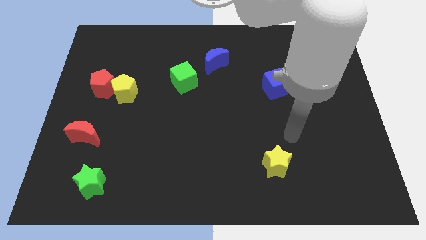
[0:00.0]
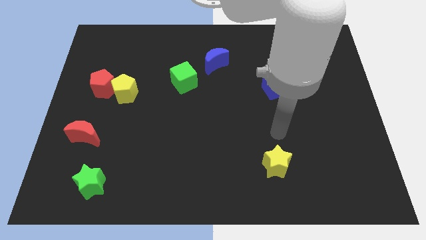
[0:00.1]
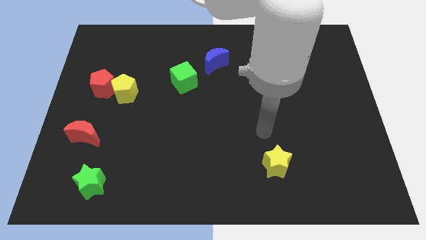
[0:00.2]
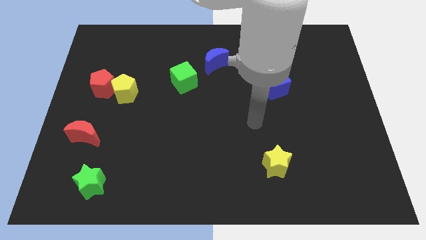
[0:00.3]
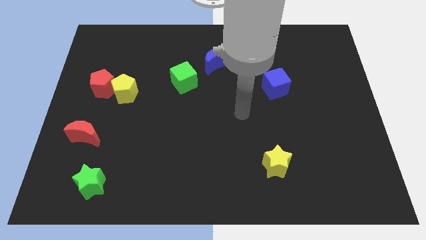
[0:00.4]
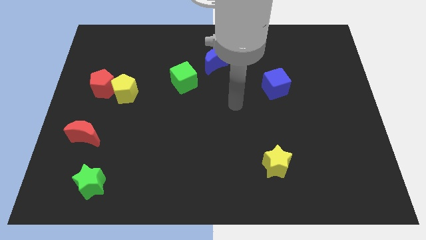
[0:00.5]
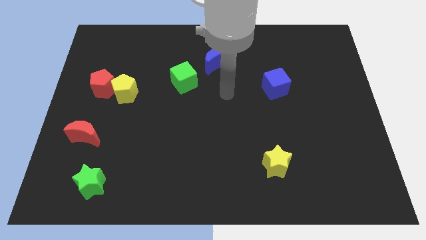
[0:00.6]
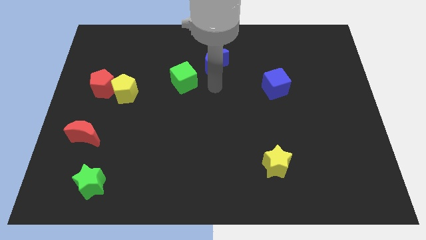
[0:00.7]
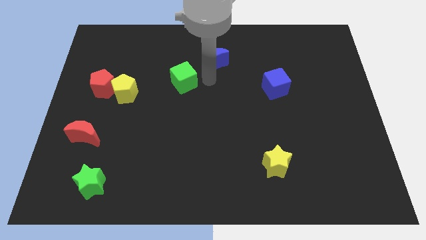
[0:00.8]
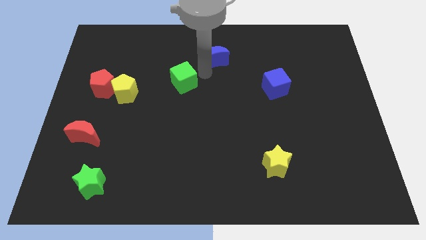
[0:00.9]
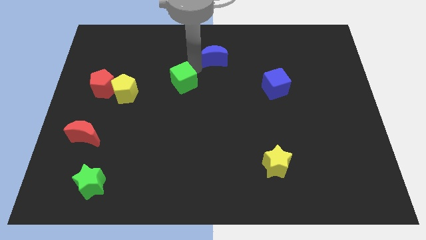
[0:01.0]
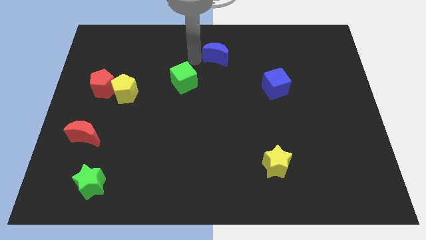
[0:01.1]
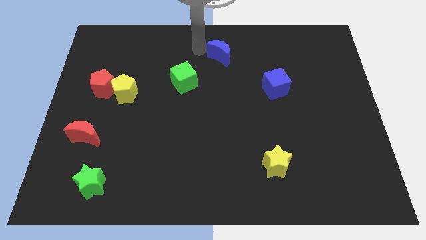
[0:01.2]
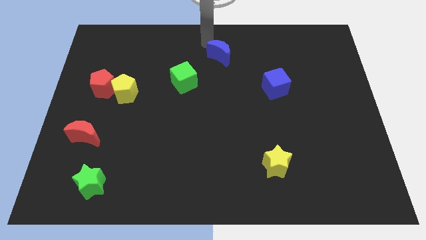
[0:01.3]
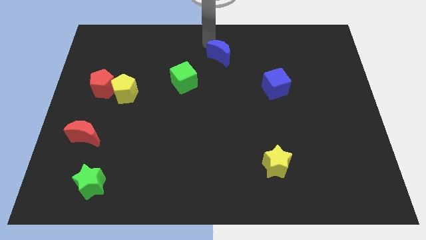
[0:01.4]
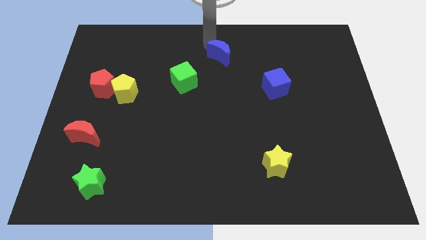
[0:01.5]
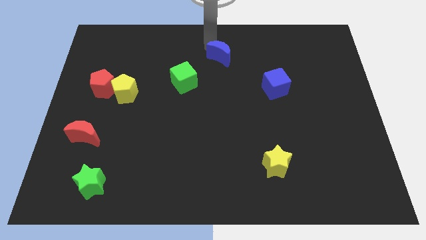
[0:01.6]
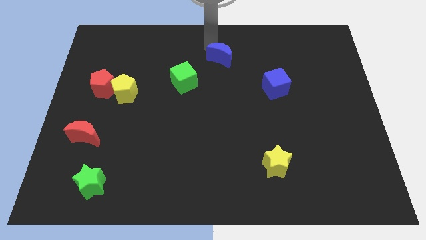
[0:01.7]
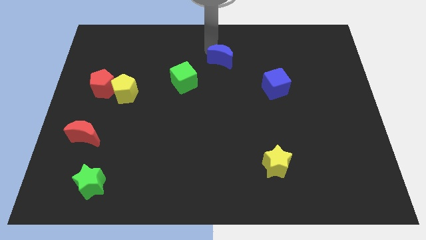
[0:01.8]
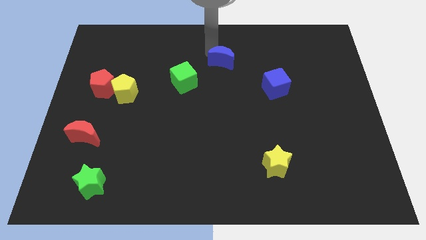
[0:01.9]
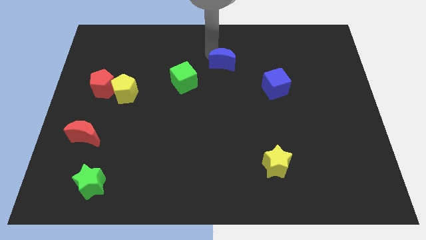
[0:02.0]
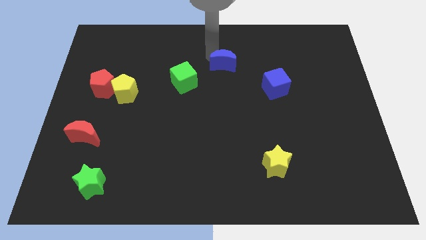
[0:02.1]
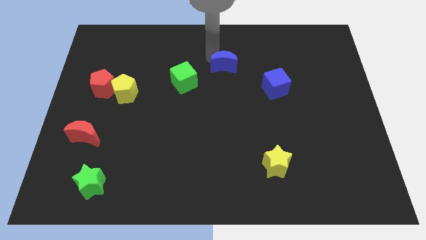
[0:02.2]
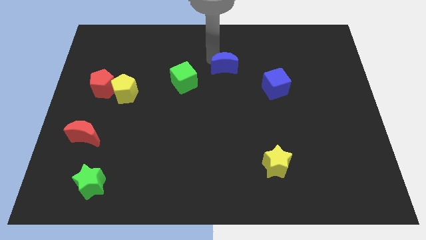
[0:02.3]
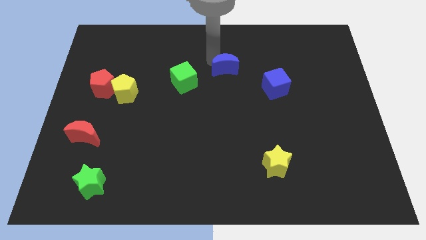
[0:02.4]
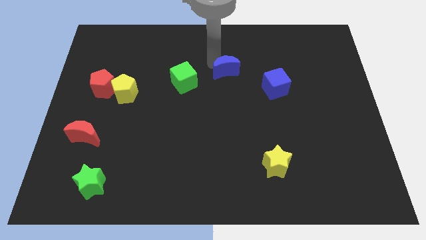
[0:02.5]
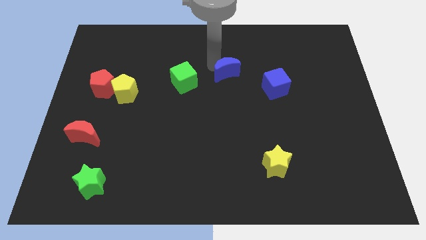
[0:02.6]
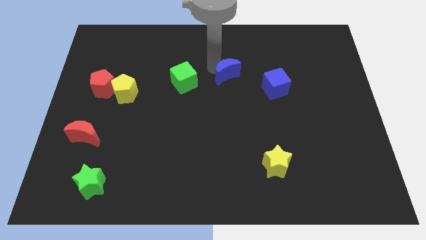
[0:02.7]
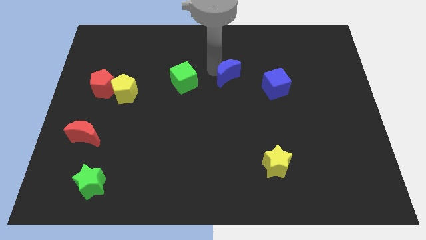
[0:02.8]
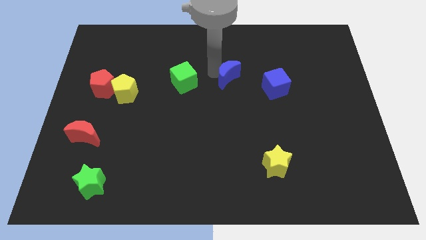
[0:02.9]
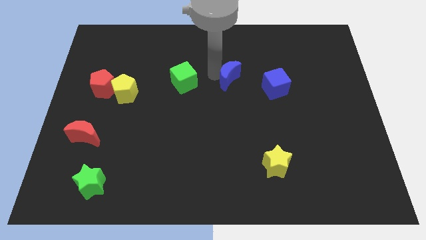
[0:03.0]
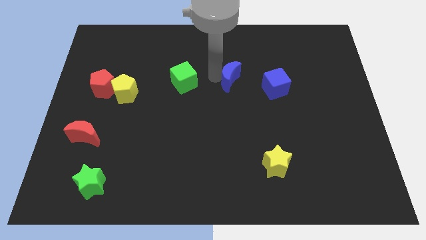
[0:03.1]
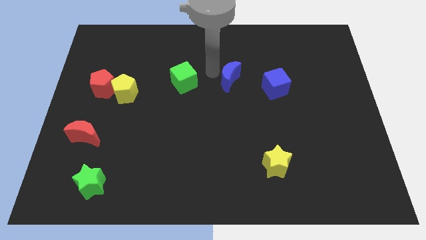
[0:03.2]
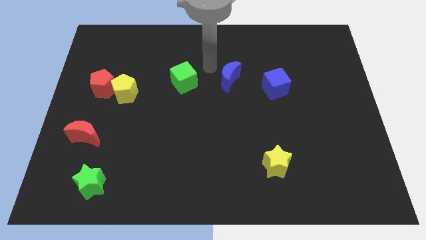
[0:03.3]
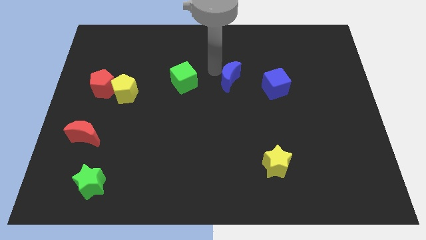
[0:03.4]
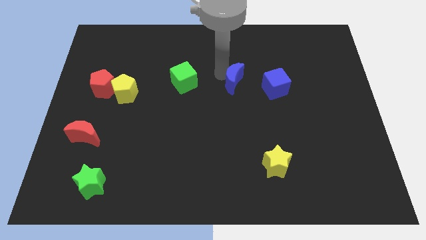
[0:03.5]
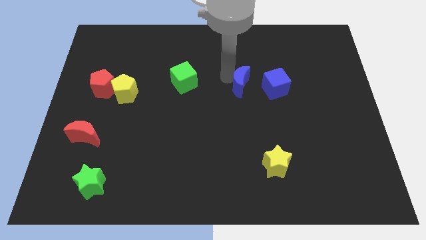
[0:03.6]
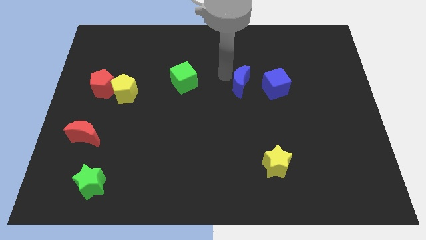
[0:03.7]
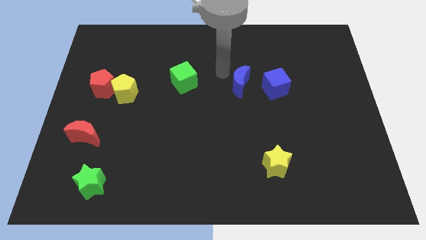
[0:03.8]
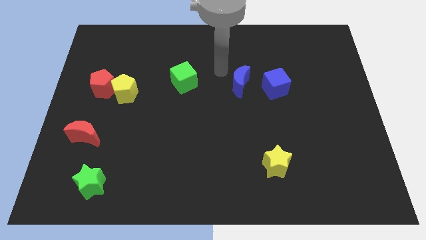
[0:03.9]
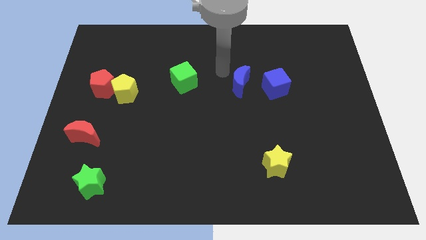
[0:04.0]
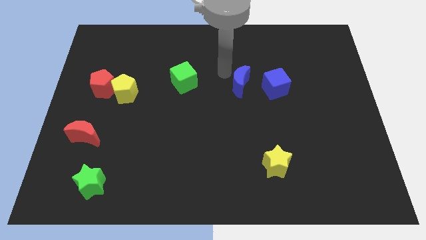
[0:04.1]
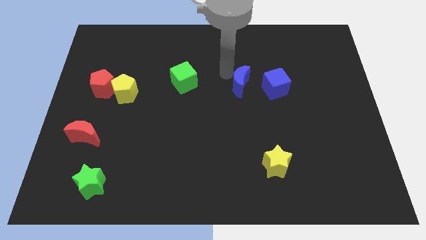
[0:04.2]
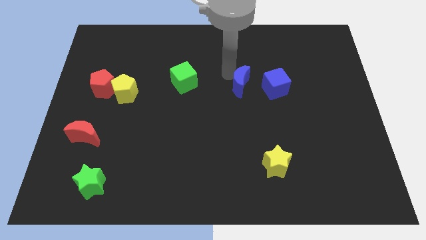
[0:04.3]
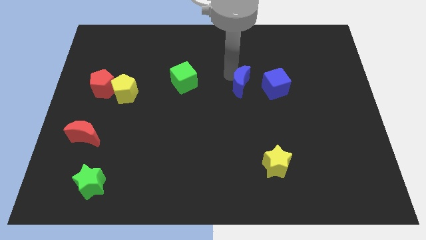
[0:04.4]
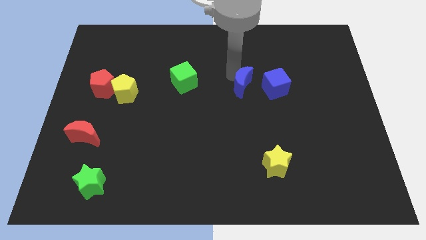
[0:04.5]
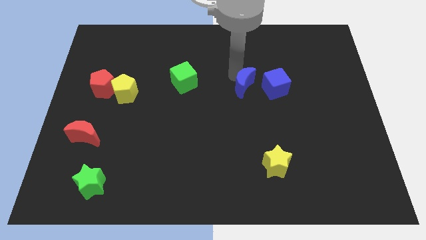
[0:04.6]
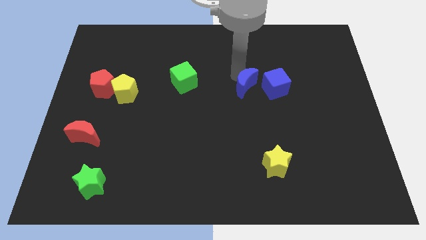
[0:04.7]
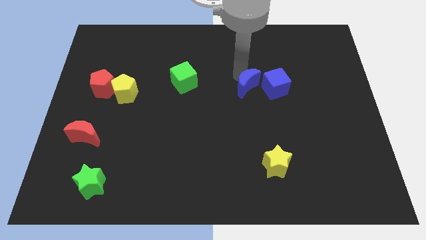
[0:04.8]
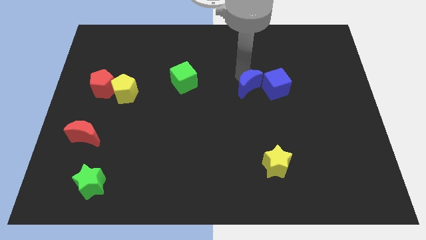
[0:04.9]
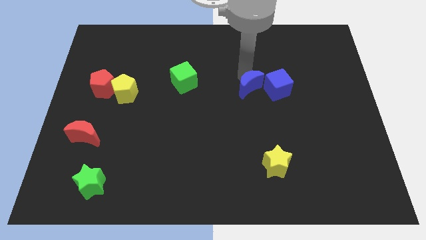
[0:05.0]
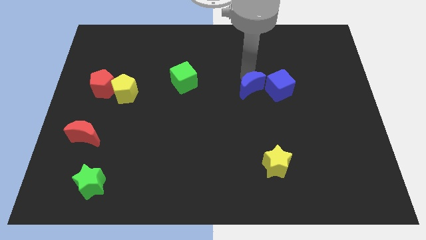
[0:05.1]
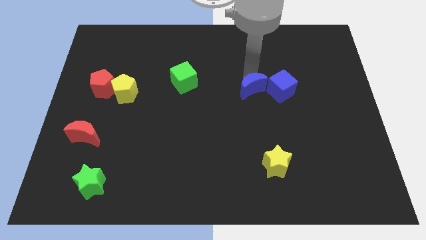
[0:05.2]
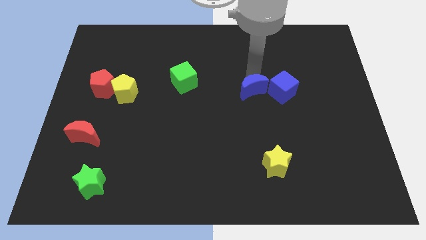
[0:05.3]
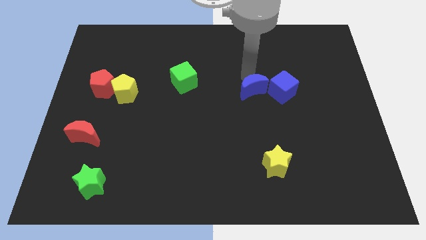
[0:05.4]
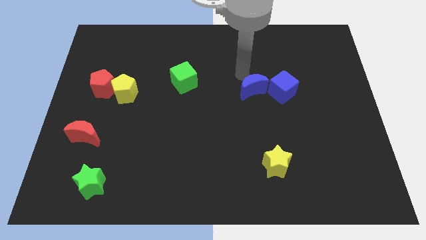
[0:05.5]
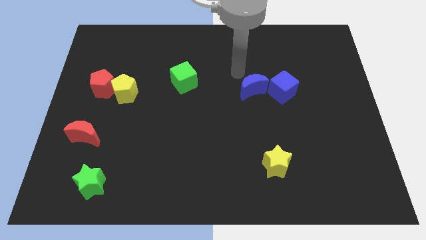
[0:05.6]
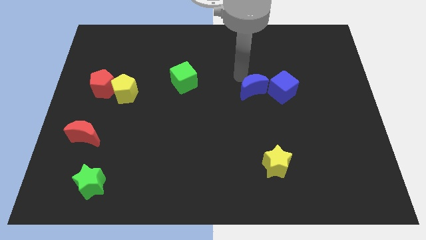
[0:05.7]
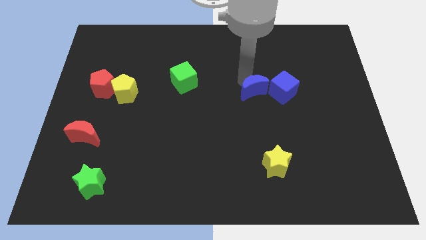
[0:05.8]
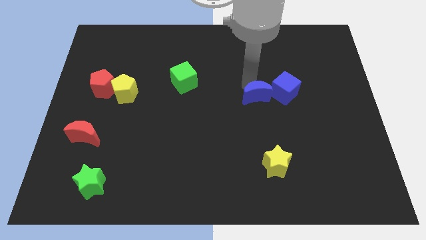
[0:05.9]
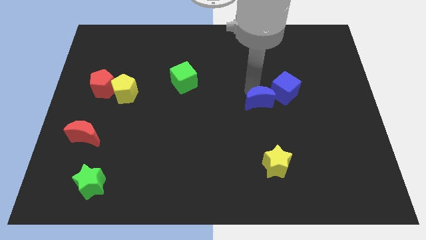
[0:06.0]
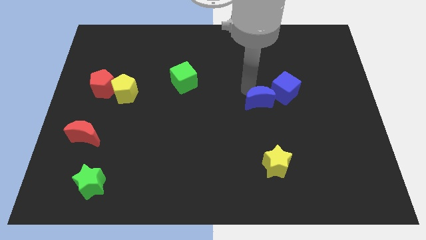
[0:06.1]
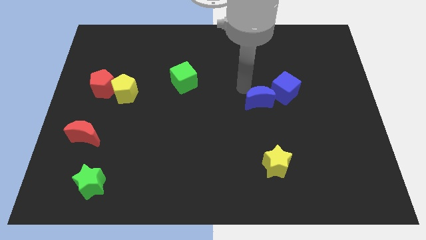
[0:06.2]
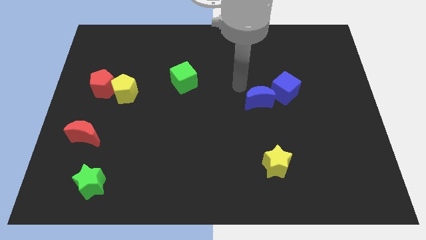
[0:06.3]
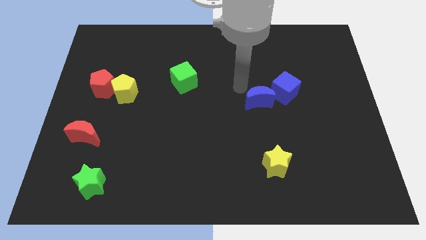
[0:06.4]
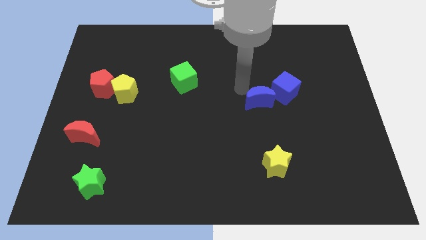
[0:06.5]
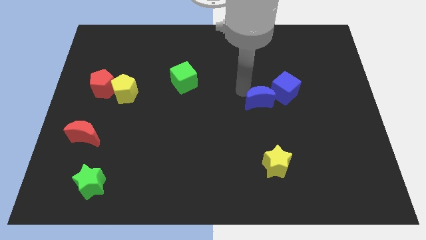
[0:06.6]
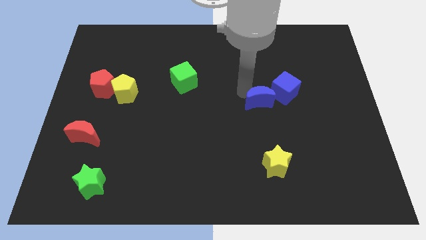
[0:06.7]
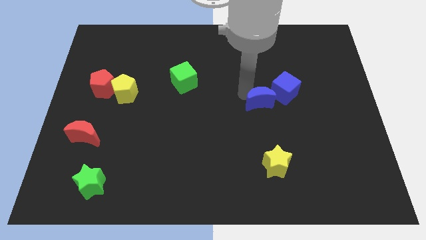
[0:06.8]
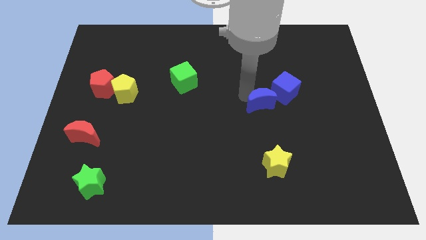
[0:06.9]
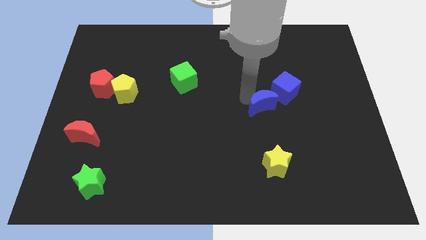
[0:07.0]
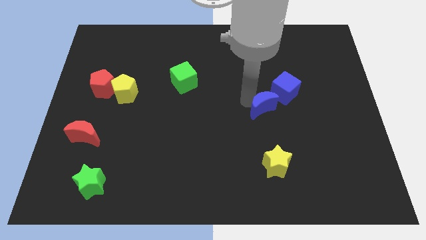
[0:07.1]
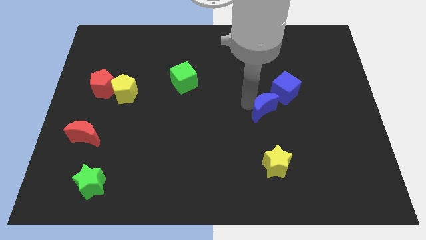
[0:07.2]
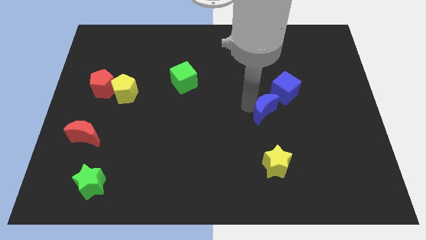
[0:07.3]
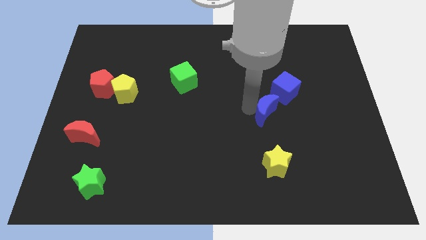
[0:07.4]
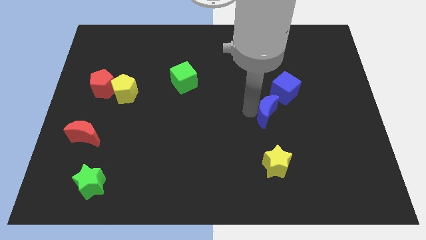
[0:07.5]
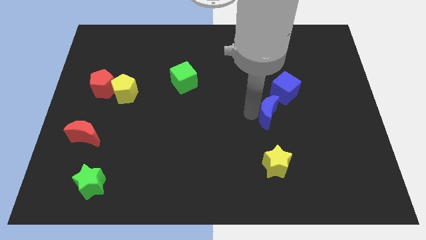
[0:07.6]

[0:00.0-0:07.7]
move the blue moon diagonally down and to the right

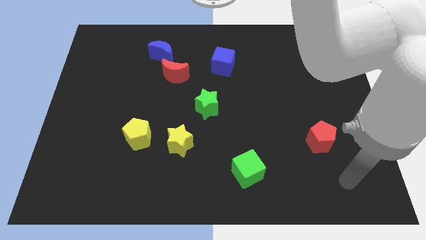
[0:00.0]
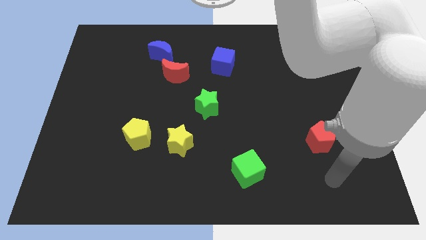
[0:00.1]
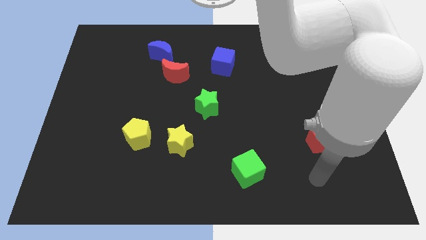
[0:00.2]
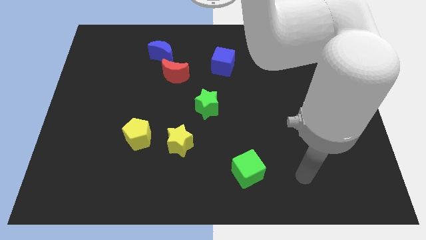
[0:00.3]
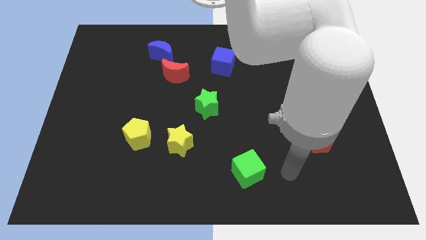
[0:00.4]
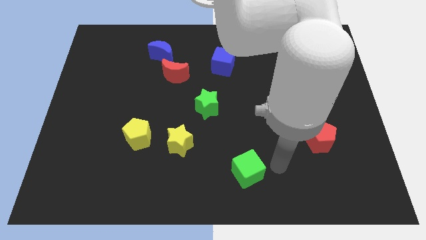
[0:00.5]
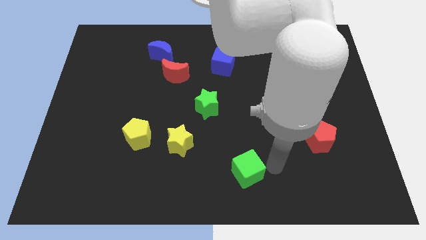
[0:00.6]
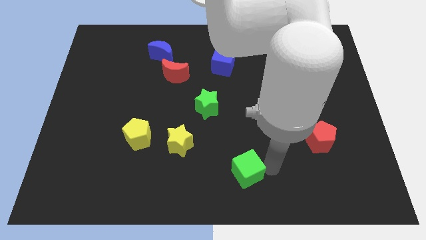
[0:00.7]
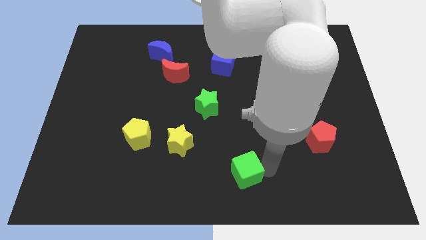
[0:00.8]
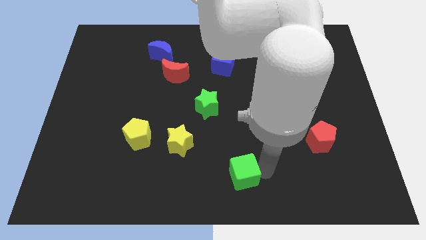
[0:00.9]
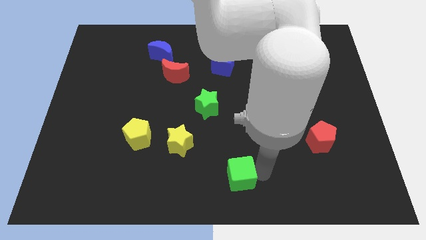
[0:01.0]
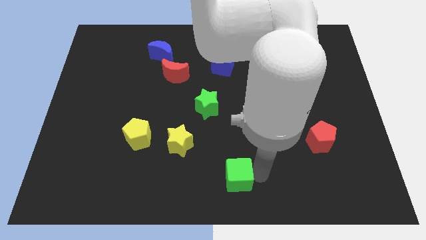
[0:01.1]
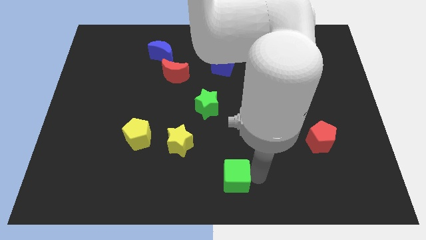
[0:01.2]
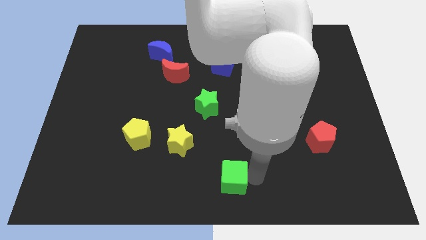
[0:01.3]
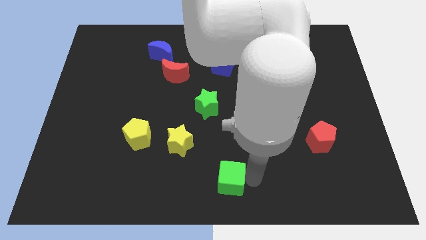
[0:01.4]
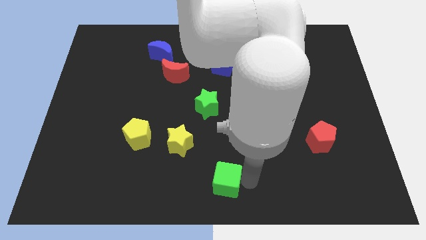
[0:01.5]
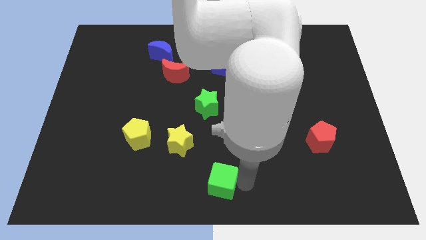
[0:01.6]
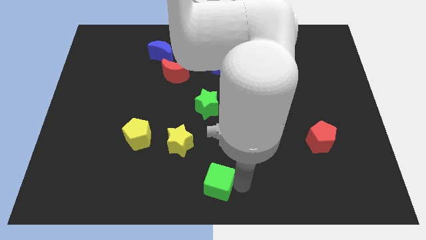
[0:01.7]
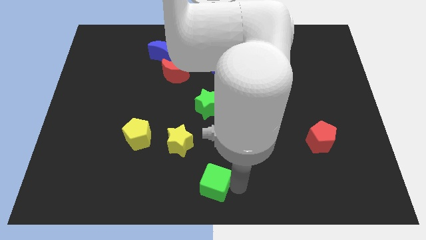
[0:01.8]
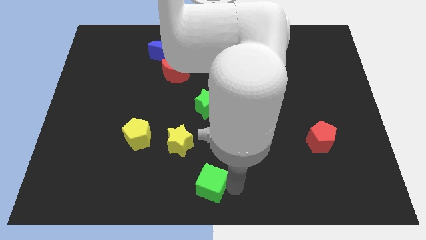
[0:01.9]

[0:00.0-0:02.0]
push the green cube left a bit
